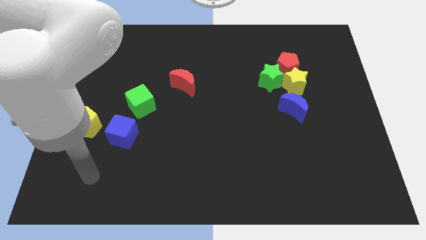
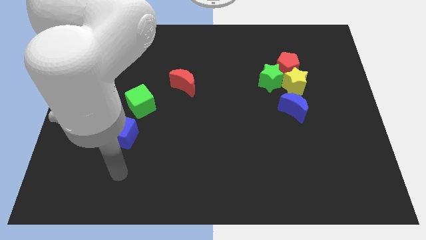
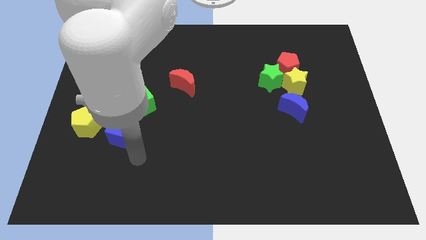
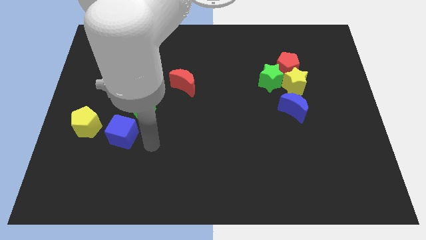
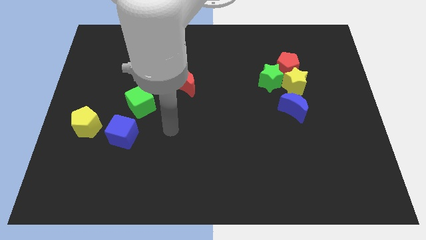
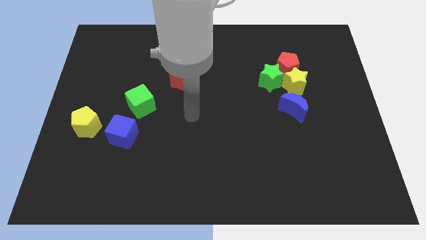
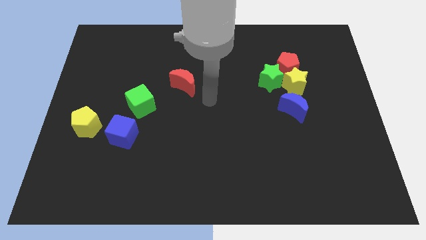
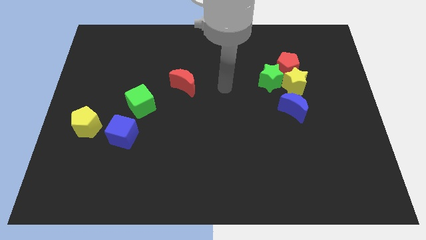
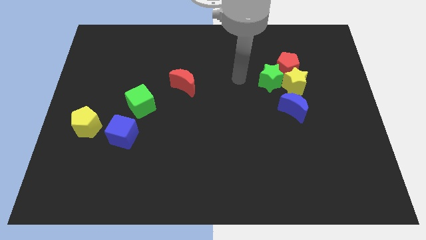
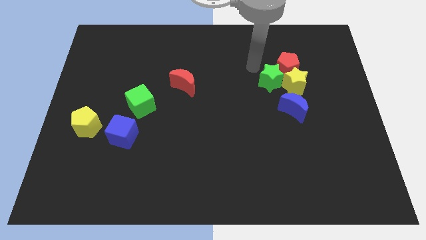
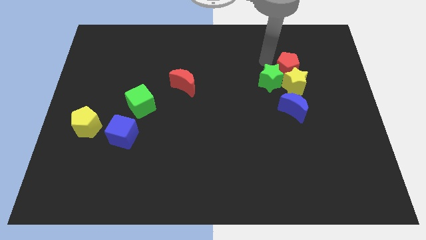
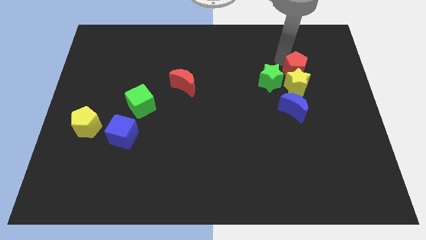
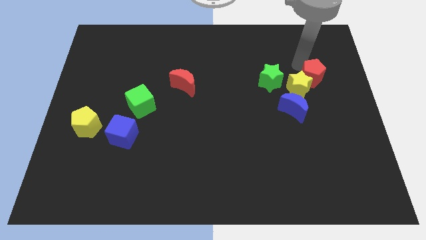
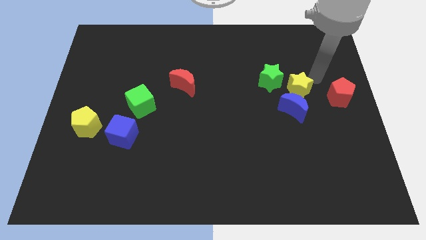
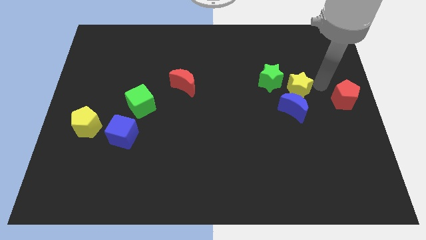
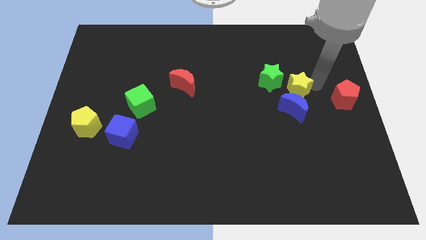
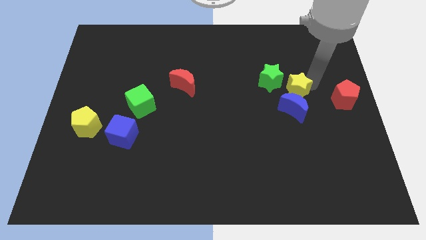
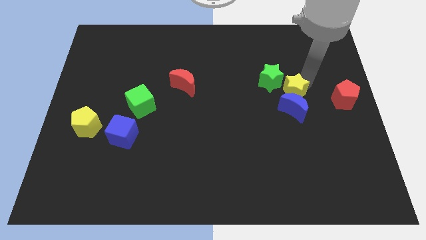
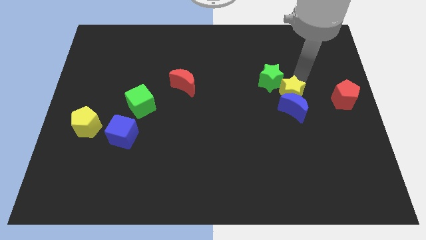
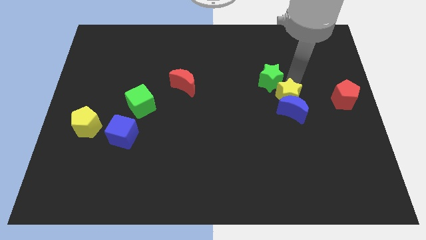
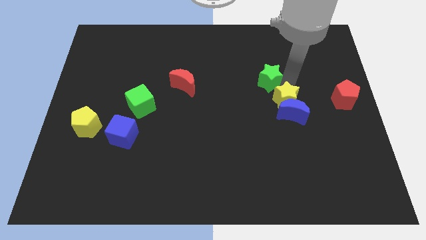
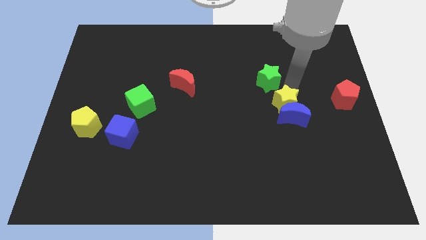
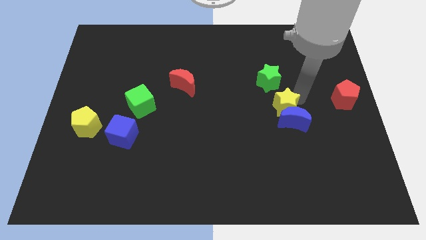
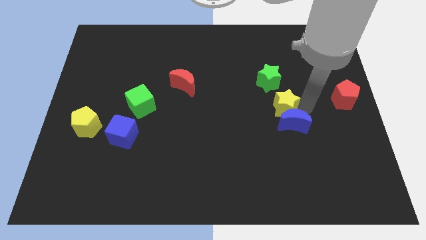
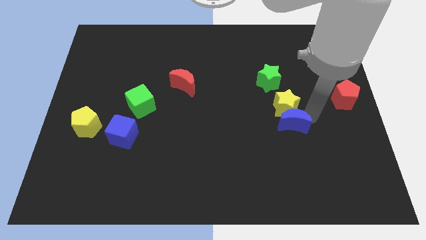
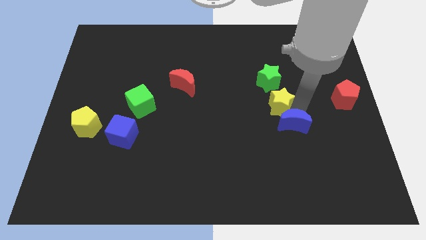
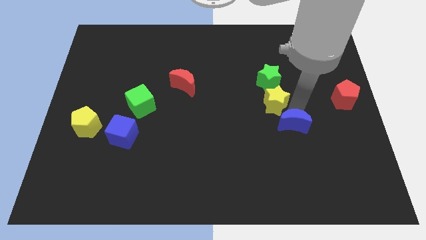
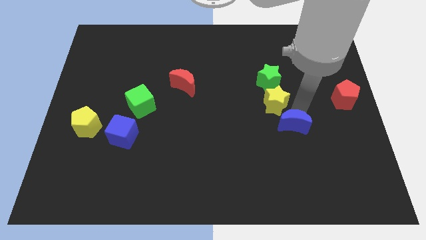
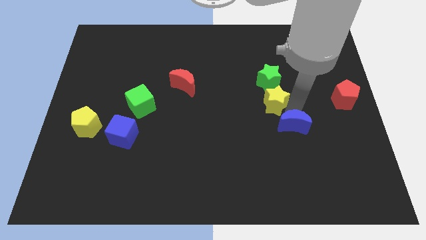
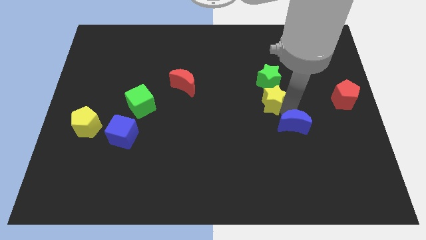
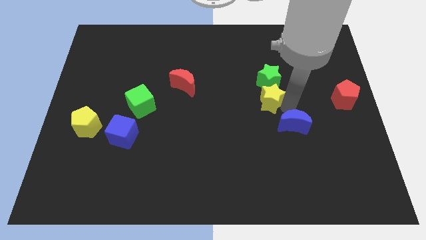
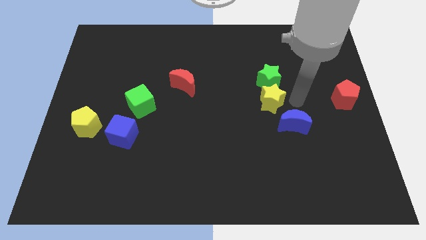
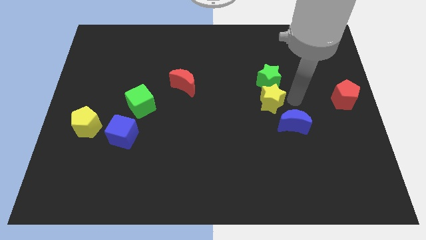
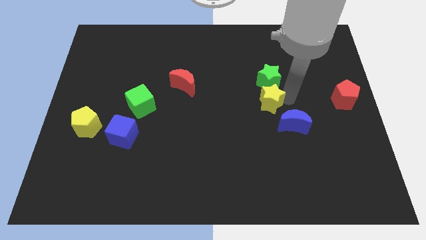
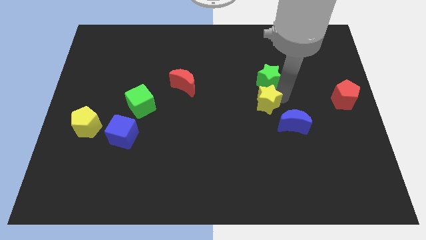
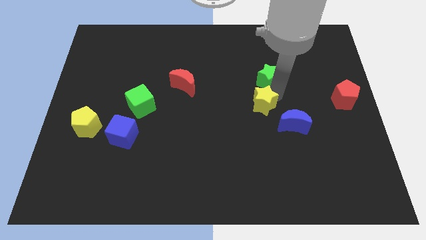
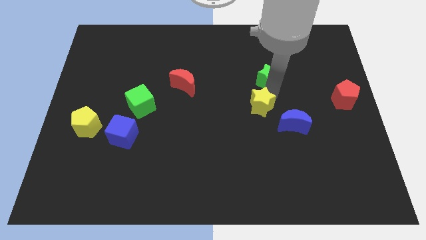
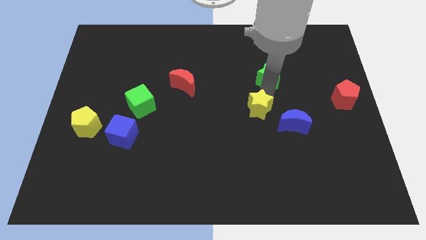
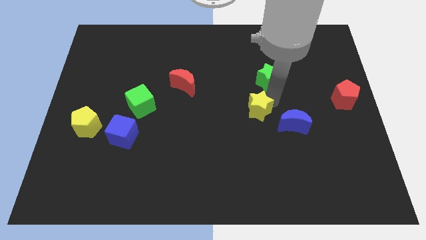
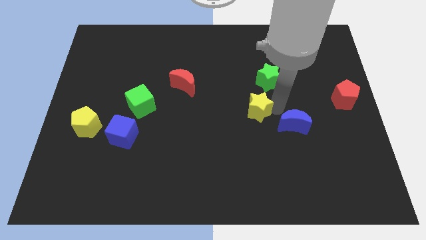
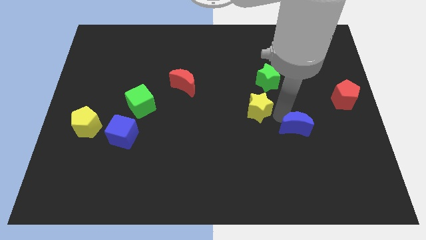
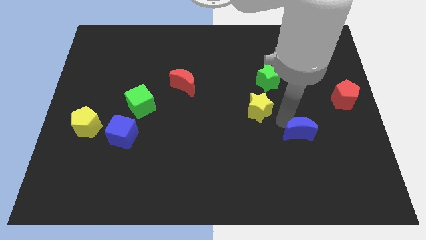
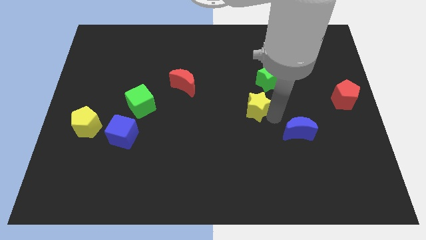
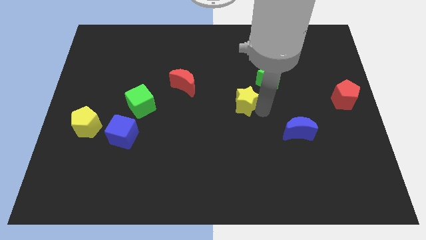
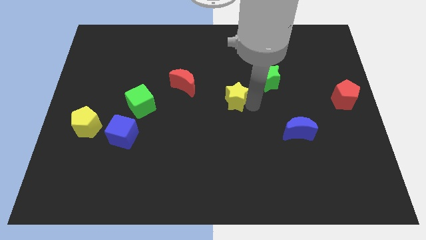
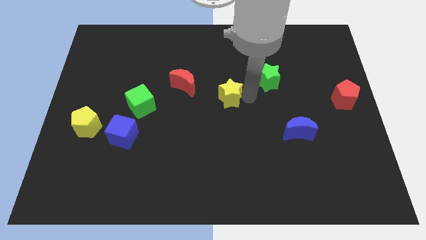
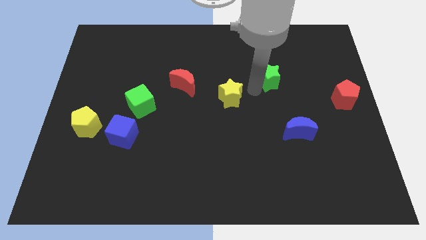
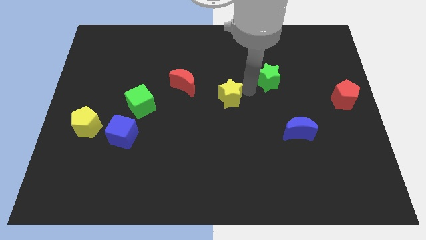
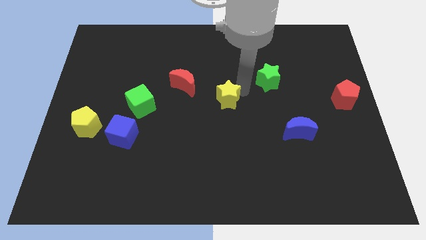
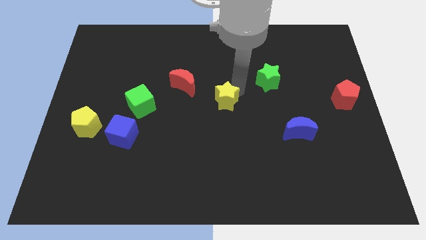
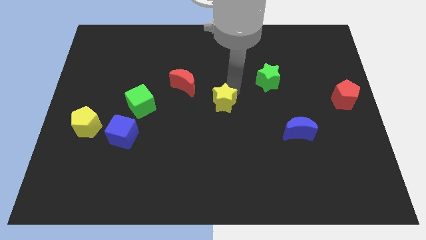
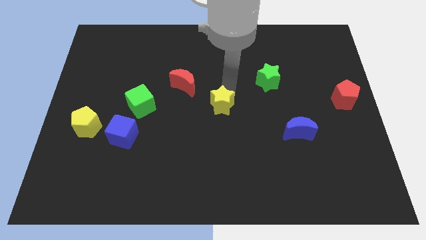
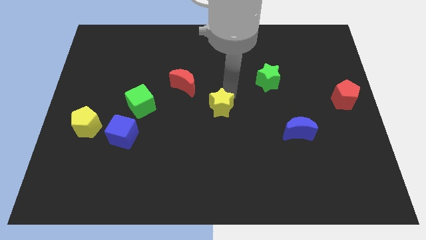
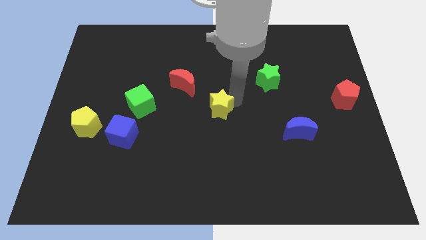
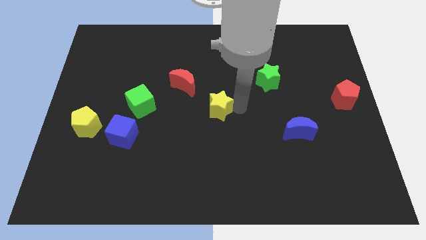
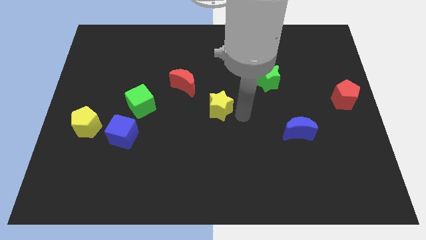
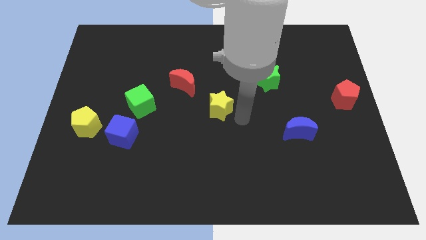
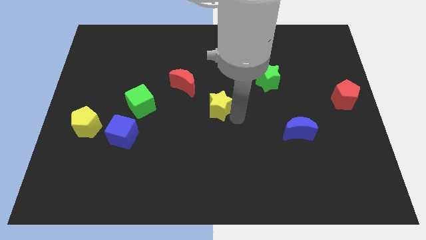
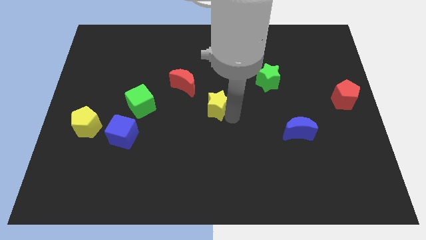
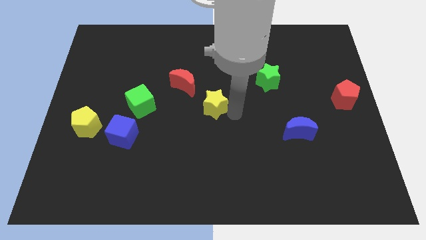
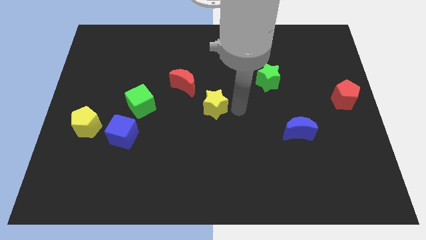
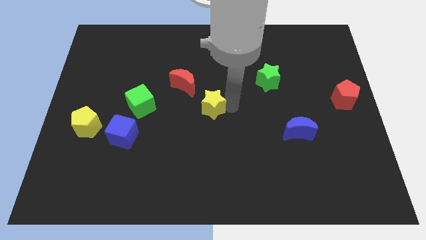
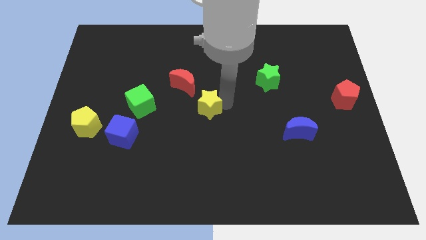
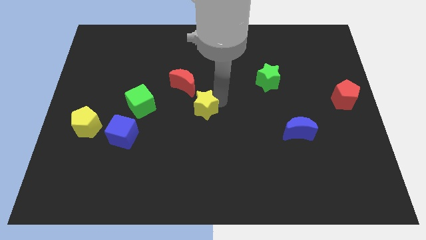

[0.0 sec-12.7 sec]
slide the yellow star to the left

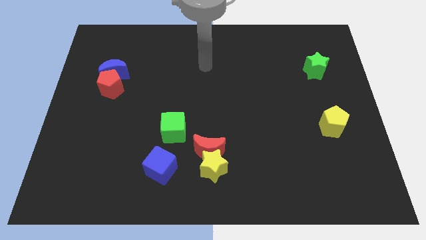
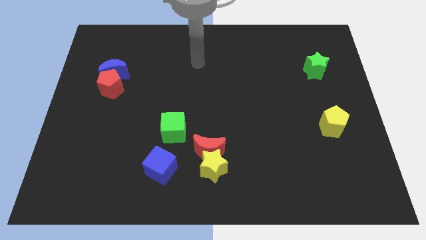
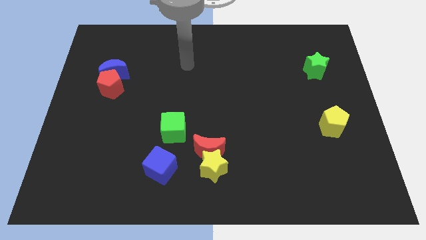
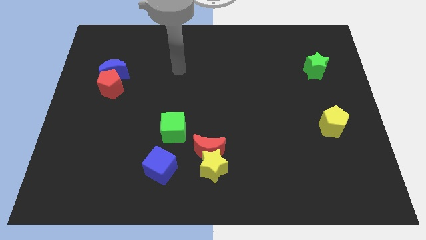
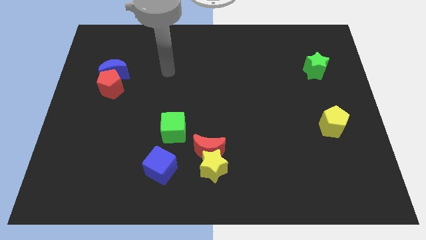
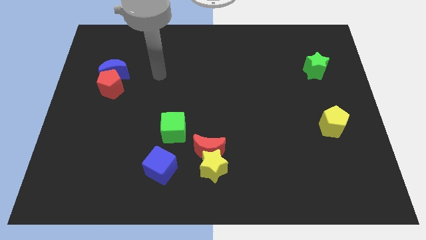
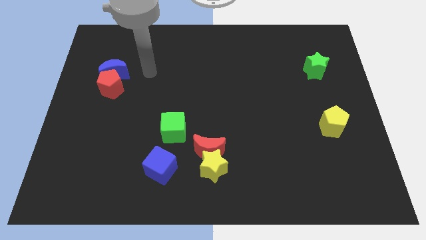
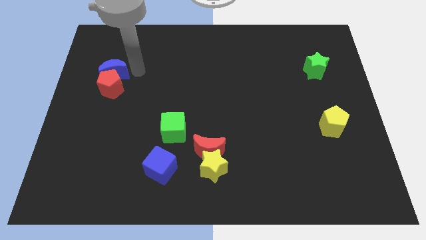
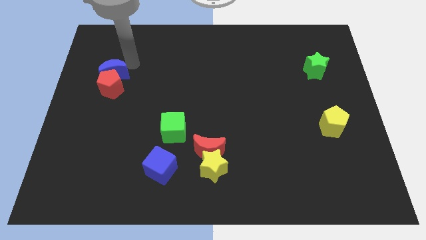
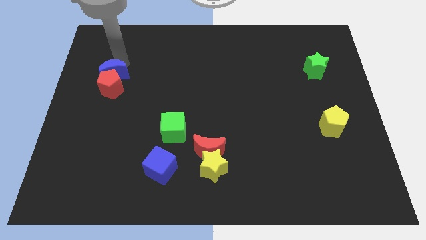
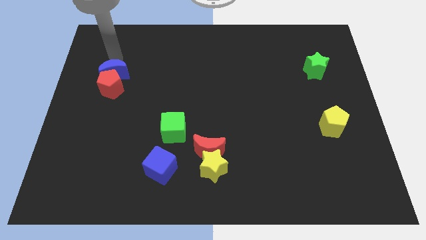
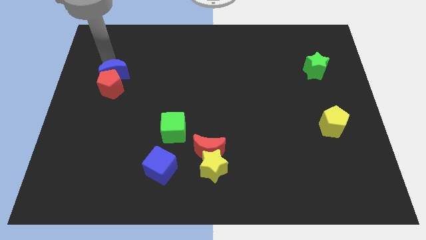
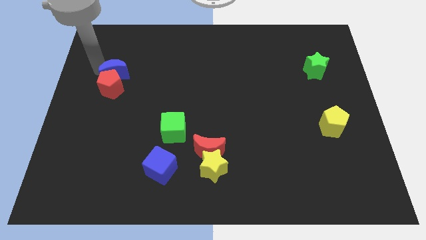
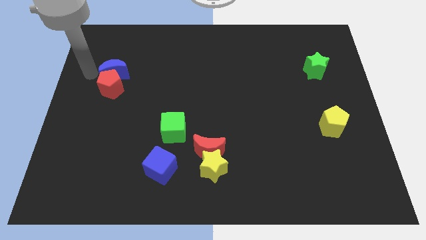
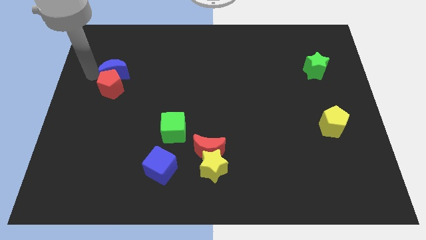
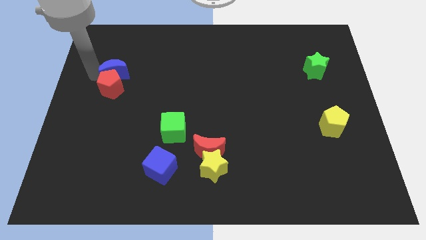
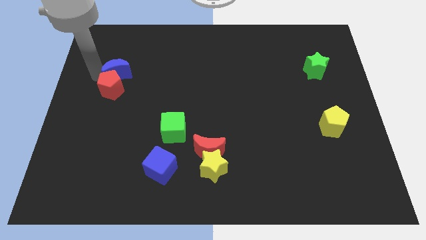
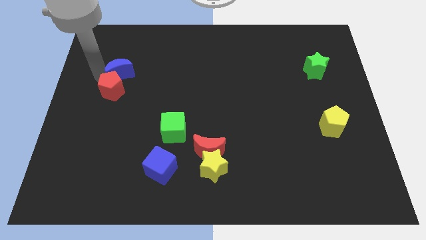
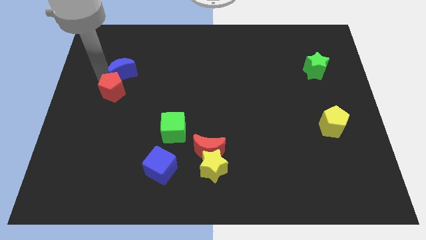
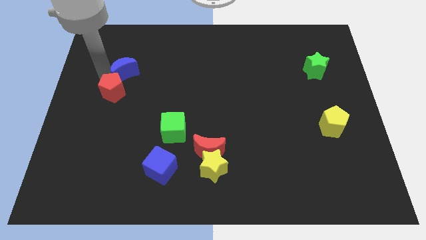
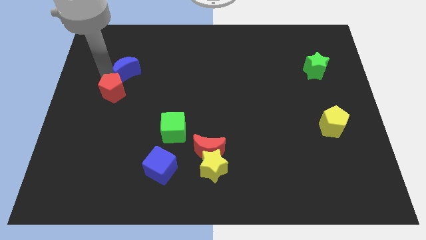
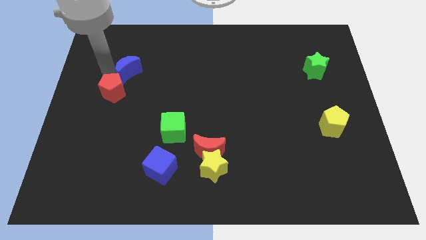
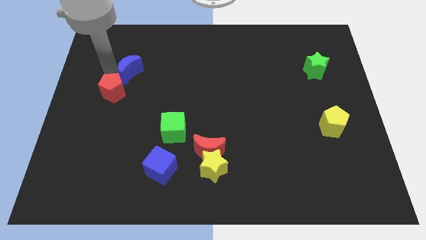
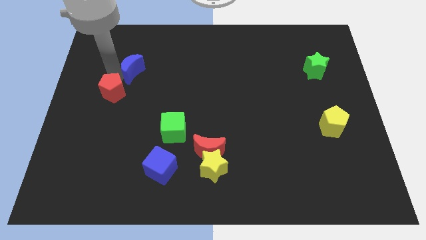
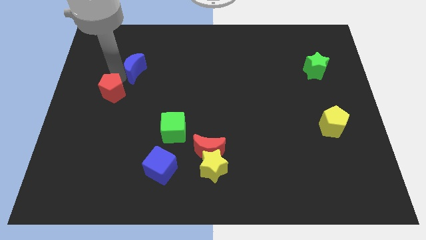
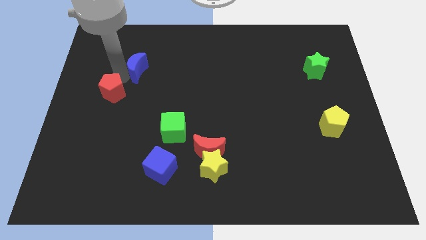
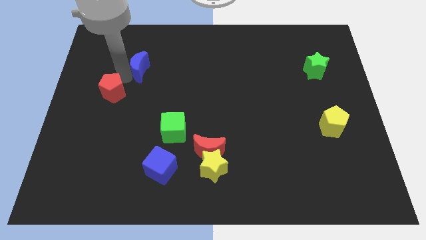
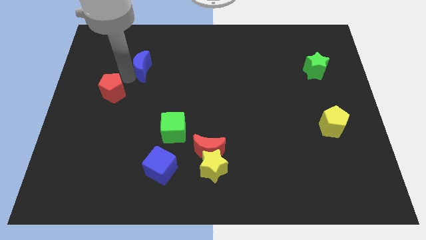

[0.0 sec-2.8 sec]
move the blue moon slightly right
